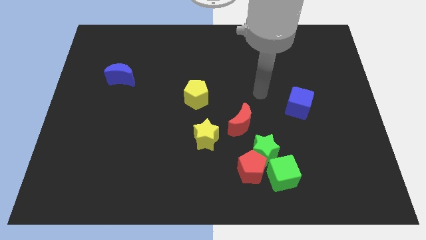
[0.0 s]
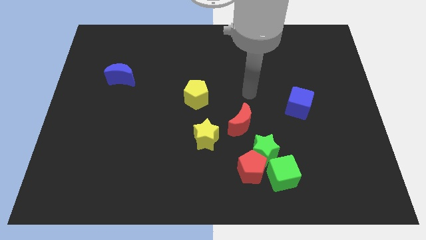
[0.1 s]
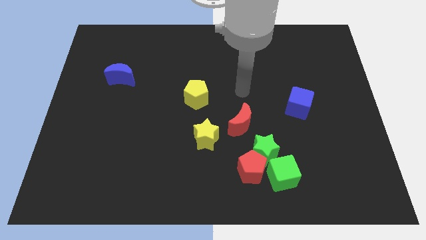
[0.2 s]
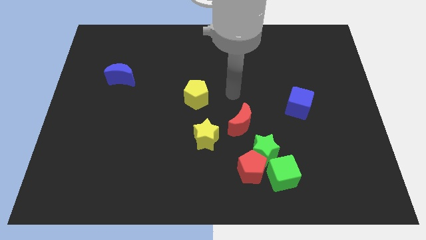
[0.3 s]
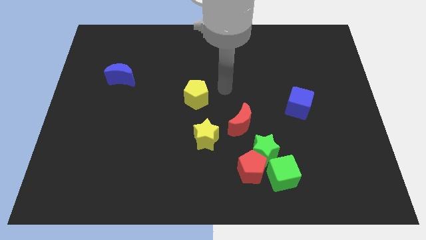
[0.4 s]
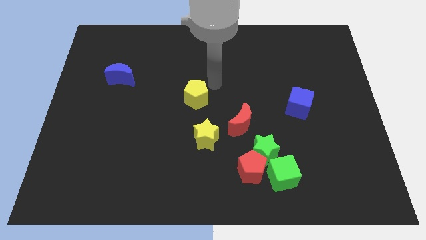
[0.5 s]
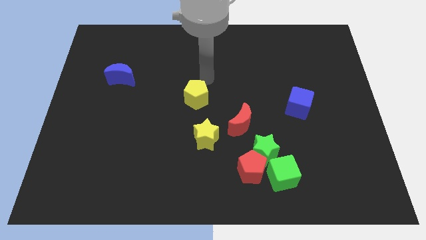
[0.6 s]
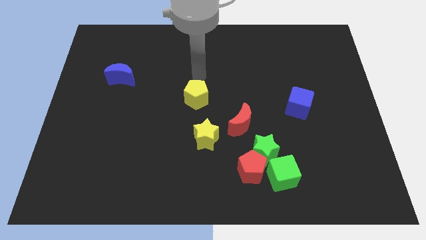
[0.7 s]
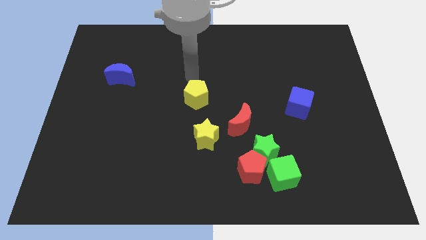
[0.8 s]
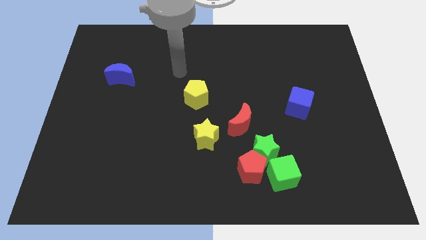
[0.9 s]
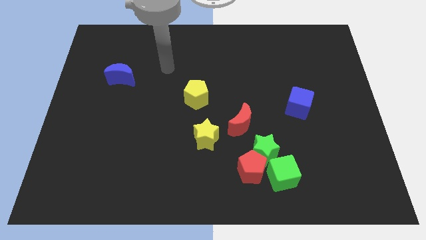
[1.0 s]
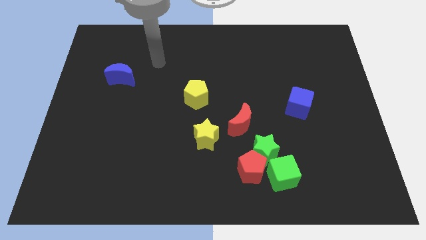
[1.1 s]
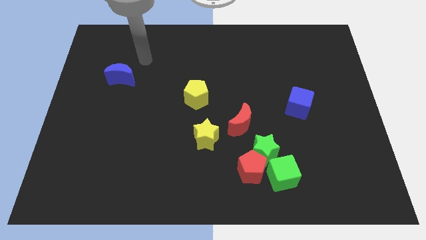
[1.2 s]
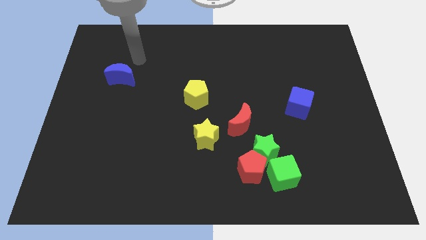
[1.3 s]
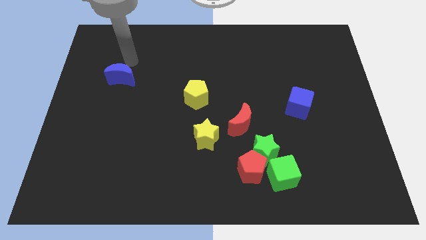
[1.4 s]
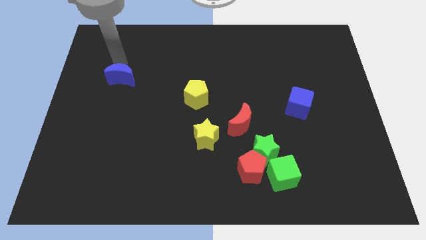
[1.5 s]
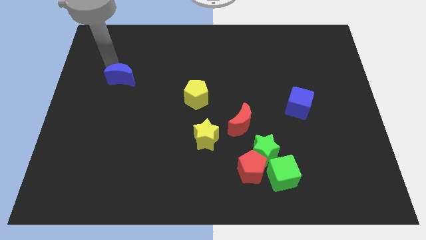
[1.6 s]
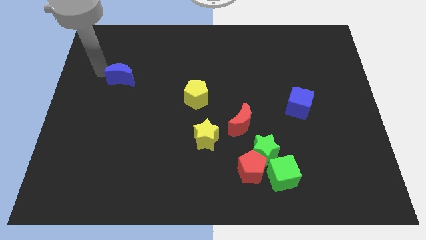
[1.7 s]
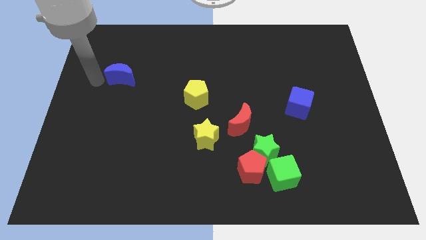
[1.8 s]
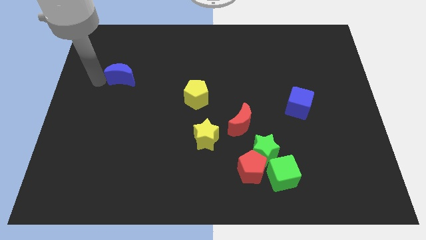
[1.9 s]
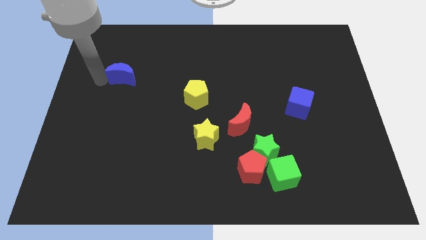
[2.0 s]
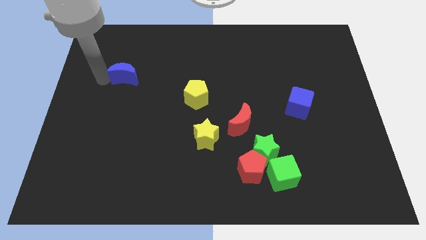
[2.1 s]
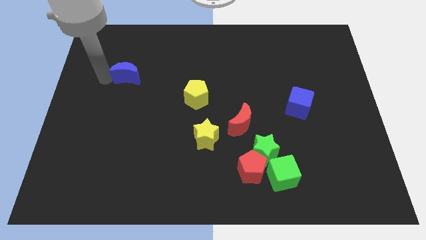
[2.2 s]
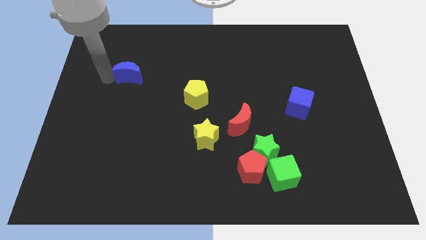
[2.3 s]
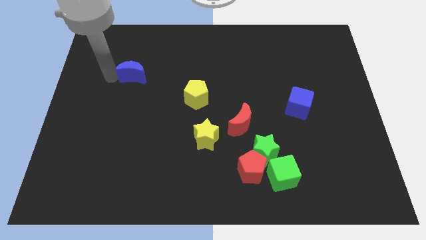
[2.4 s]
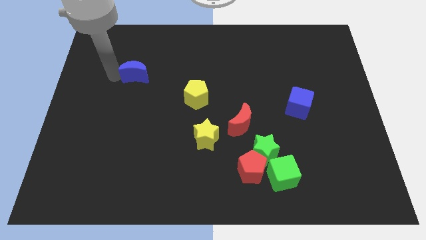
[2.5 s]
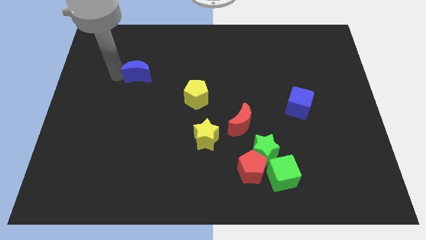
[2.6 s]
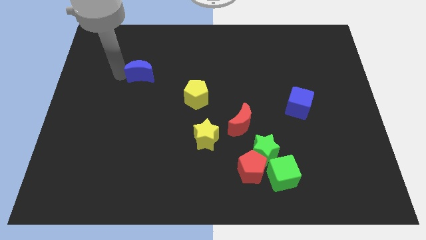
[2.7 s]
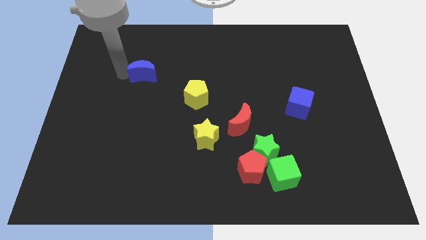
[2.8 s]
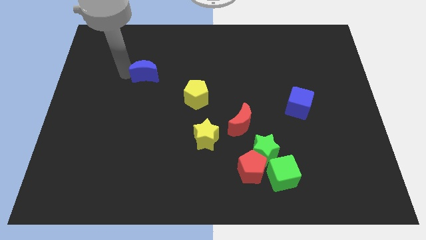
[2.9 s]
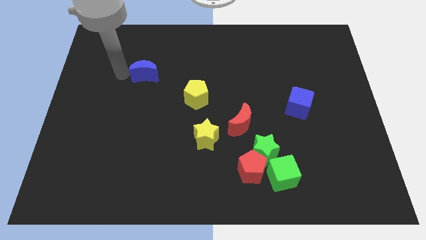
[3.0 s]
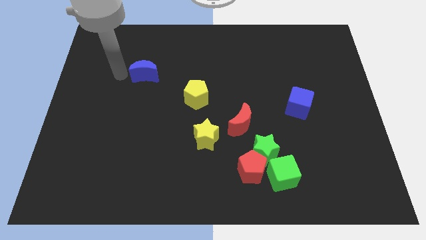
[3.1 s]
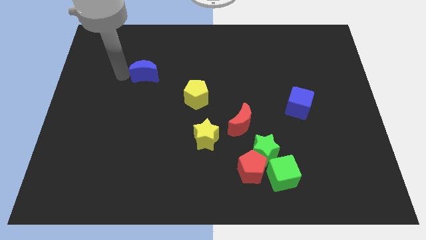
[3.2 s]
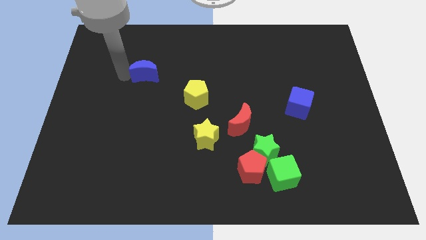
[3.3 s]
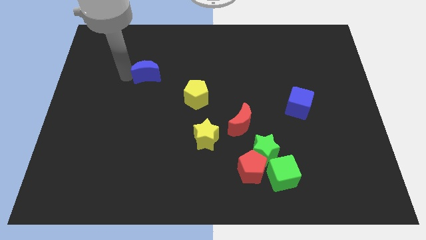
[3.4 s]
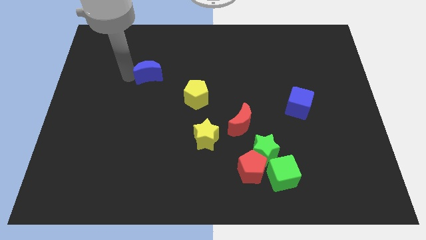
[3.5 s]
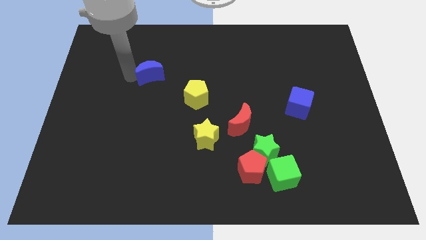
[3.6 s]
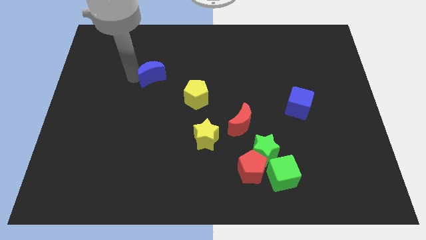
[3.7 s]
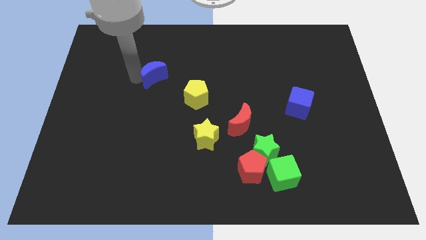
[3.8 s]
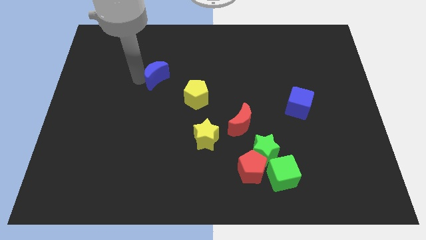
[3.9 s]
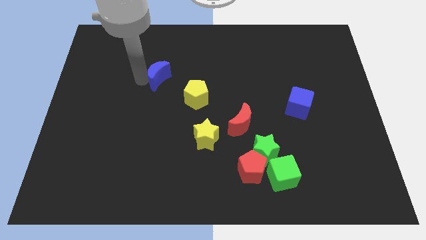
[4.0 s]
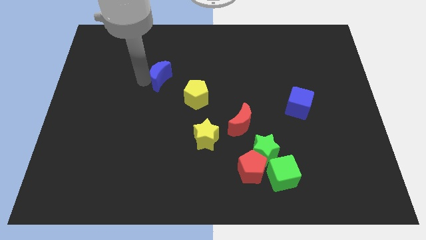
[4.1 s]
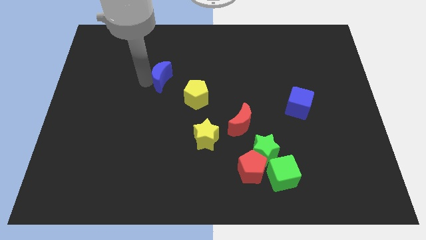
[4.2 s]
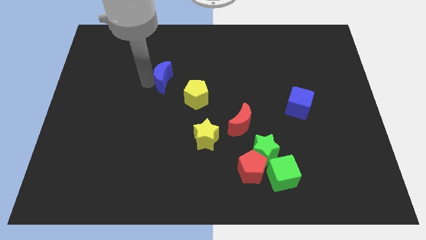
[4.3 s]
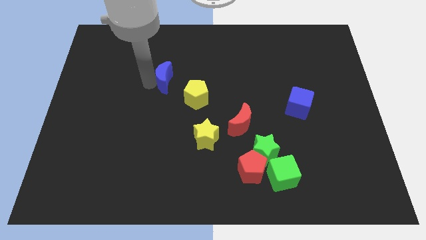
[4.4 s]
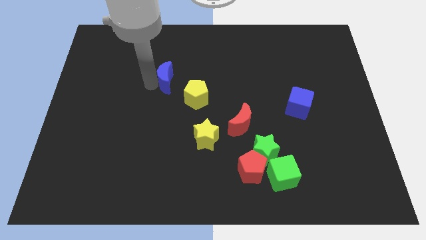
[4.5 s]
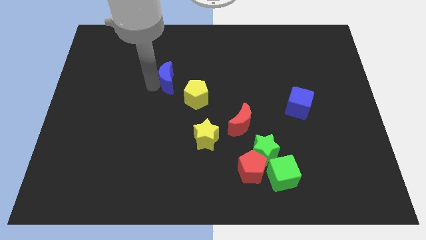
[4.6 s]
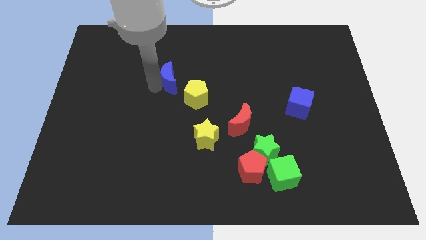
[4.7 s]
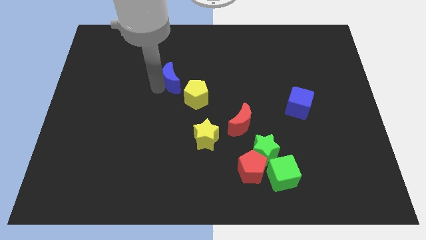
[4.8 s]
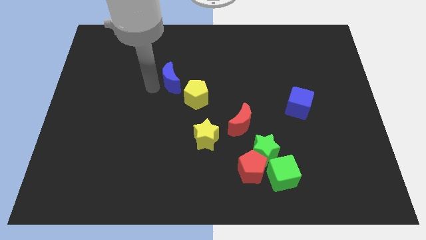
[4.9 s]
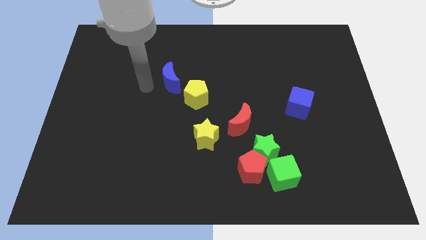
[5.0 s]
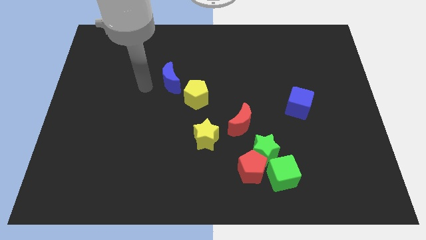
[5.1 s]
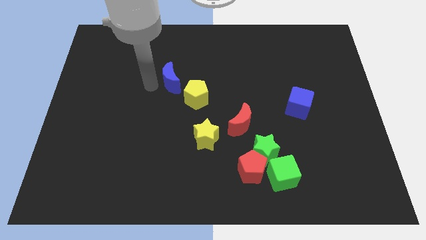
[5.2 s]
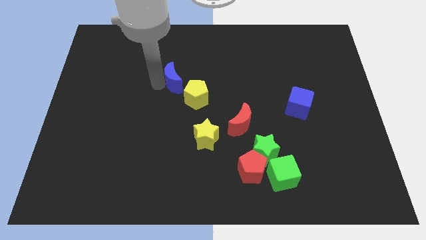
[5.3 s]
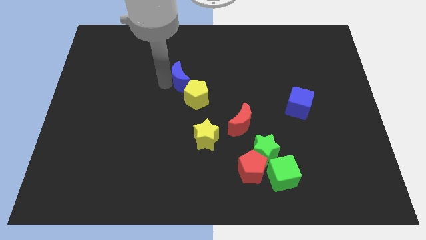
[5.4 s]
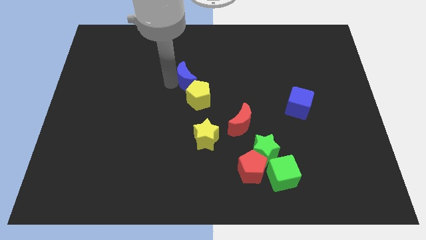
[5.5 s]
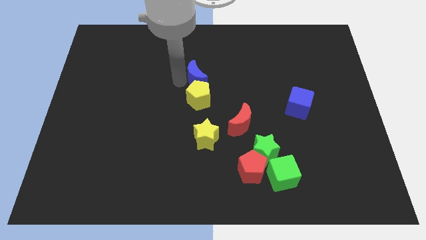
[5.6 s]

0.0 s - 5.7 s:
push the blue moon to the top right side of the yellow pentagon

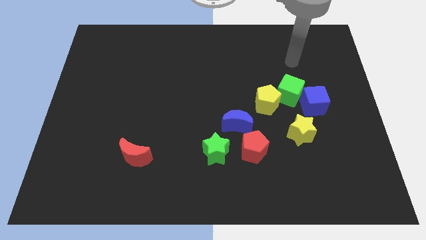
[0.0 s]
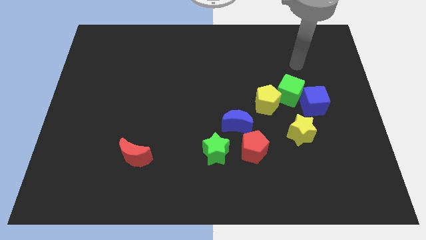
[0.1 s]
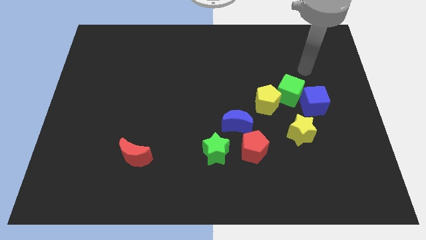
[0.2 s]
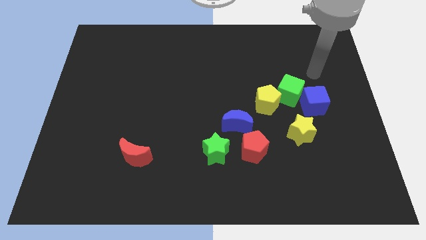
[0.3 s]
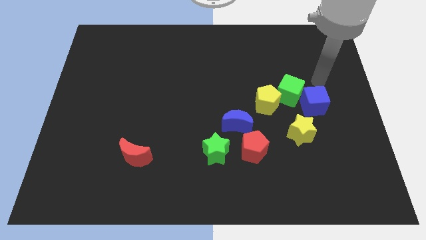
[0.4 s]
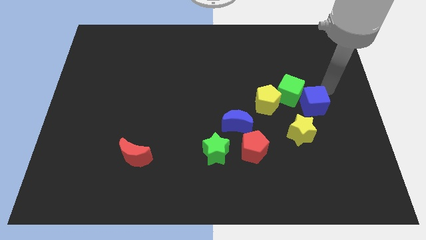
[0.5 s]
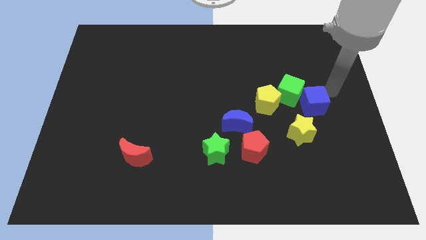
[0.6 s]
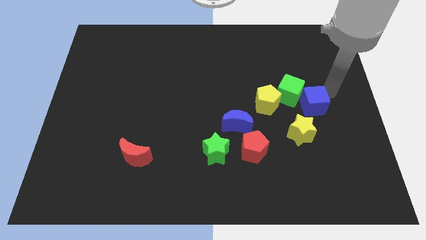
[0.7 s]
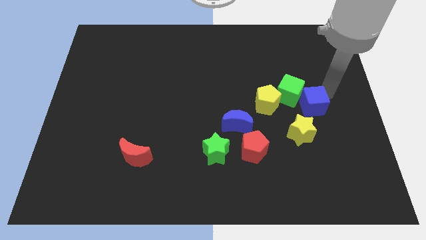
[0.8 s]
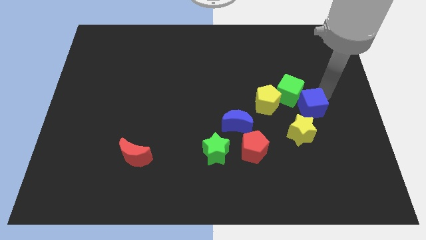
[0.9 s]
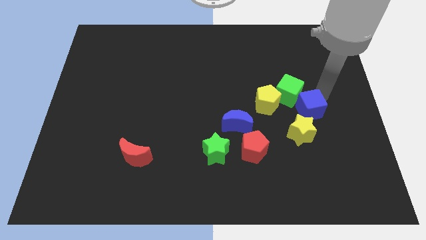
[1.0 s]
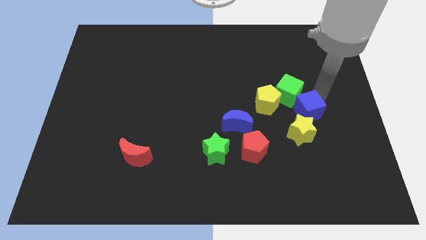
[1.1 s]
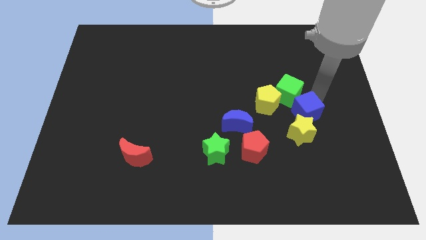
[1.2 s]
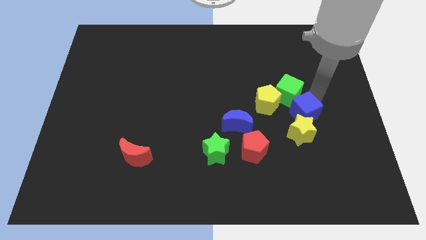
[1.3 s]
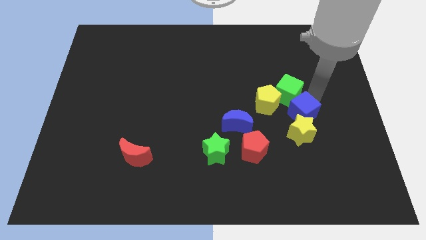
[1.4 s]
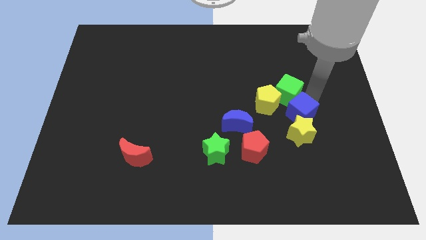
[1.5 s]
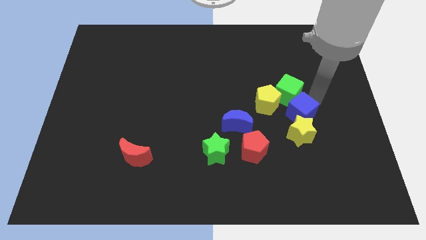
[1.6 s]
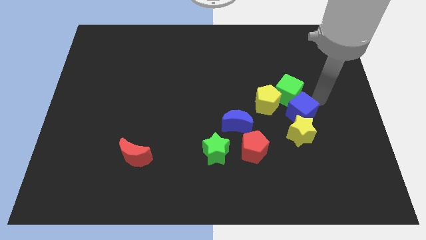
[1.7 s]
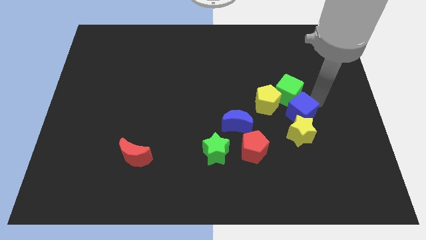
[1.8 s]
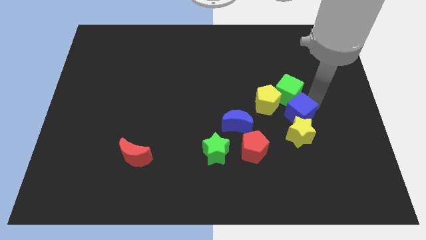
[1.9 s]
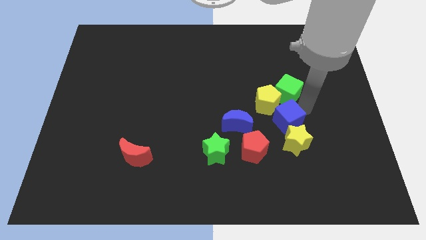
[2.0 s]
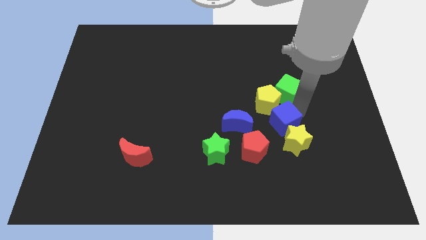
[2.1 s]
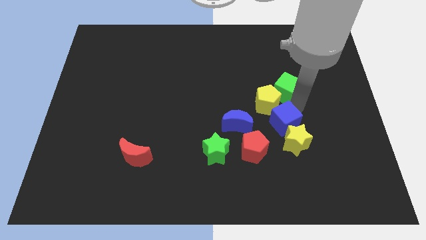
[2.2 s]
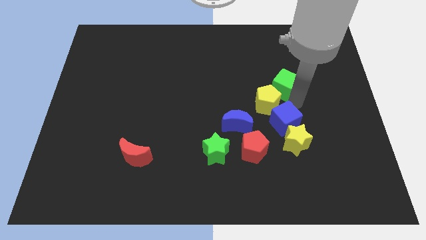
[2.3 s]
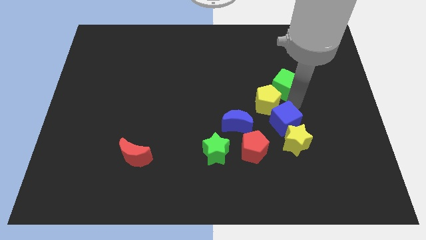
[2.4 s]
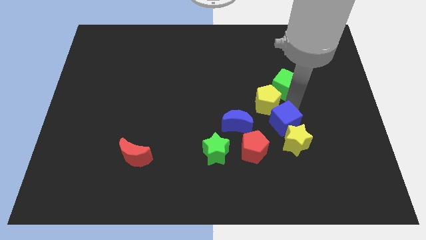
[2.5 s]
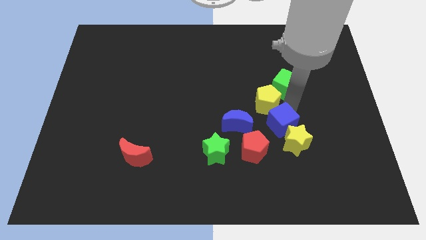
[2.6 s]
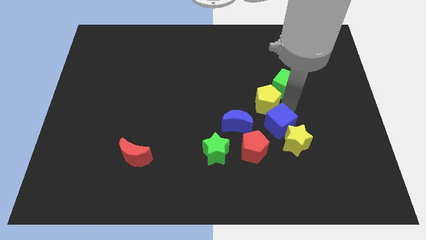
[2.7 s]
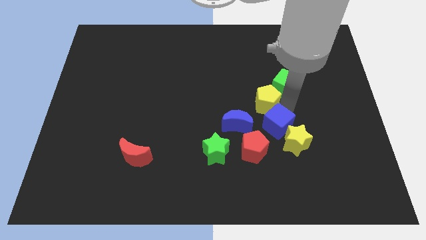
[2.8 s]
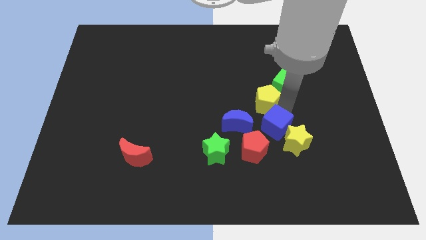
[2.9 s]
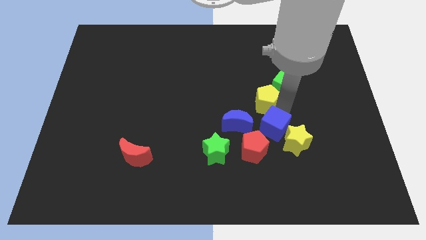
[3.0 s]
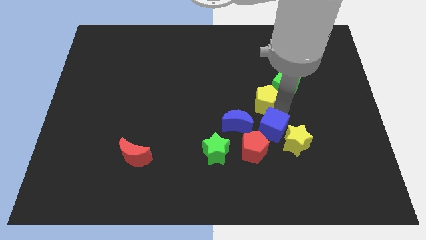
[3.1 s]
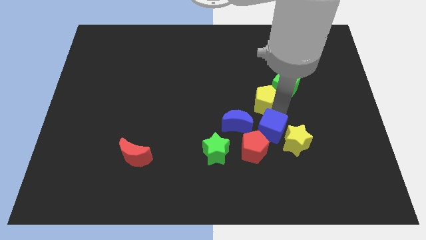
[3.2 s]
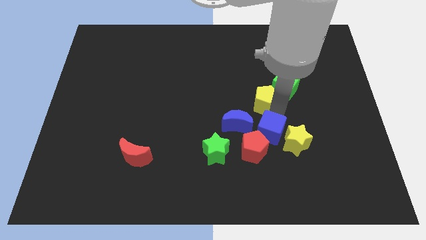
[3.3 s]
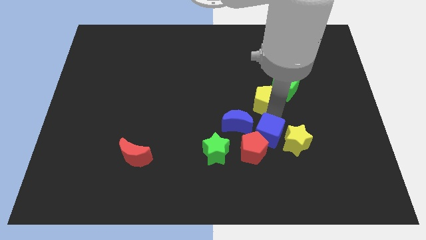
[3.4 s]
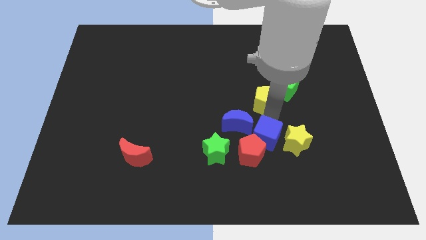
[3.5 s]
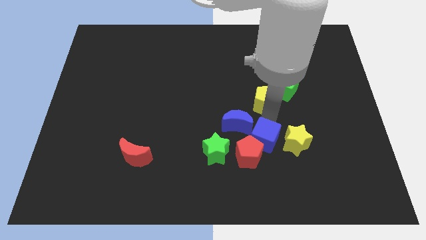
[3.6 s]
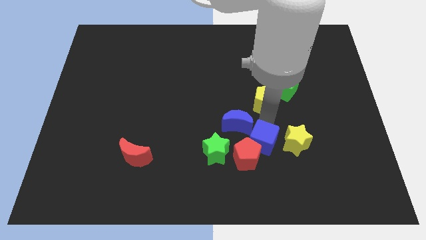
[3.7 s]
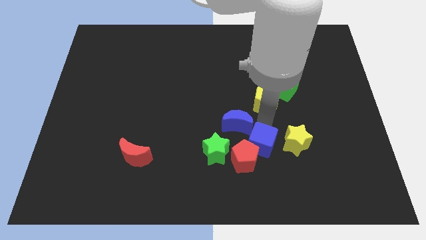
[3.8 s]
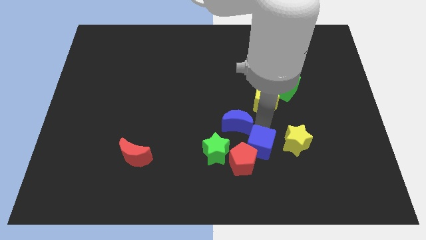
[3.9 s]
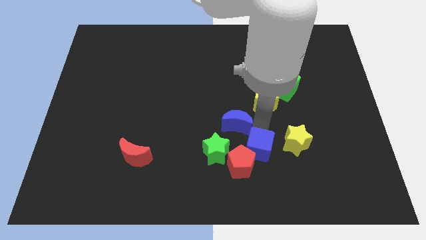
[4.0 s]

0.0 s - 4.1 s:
put the blue cube to the bottom left side of the yellow star
